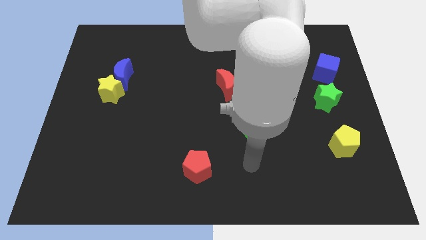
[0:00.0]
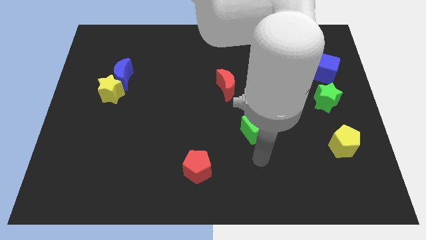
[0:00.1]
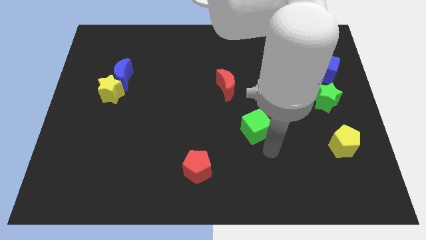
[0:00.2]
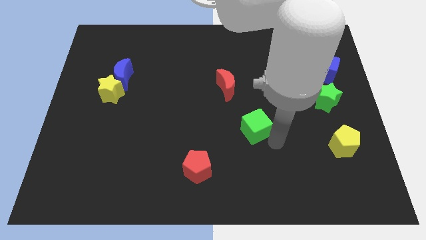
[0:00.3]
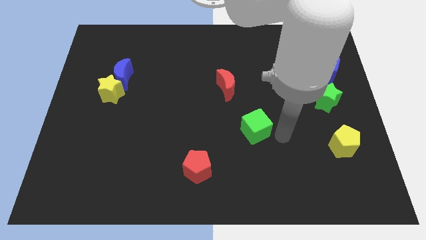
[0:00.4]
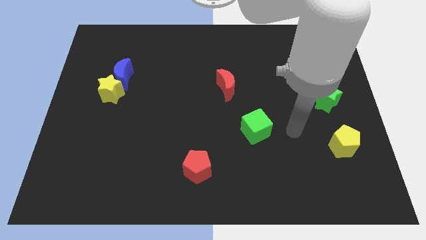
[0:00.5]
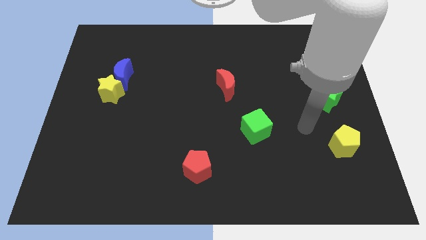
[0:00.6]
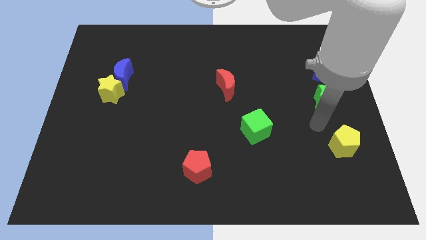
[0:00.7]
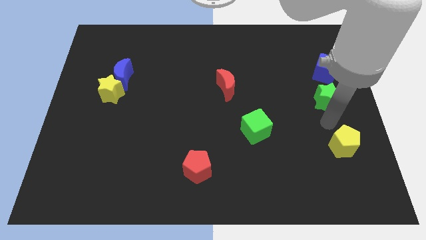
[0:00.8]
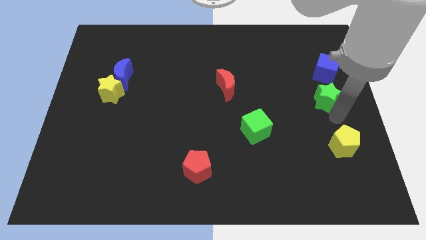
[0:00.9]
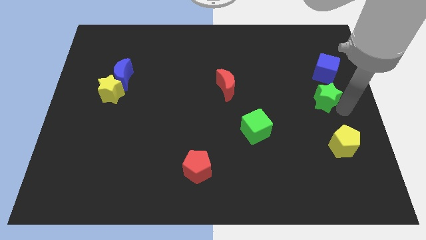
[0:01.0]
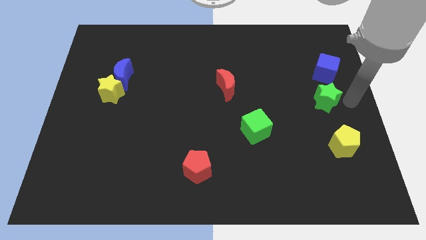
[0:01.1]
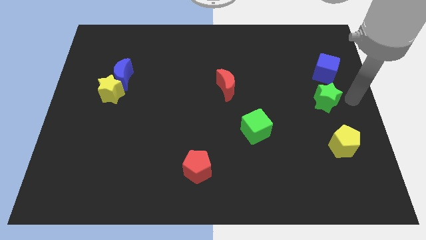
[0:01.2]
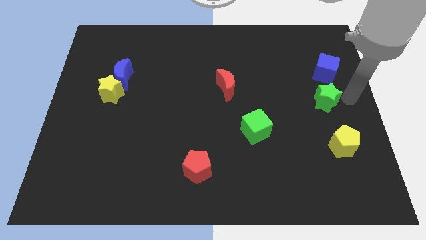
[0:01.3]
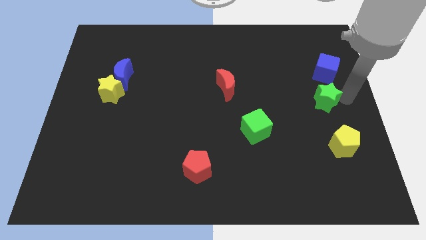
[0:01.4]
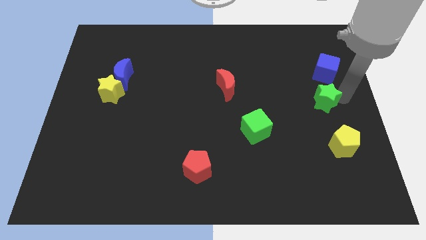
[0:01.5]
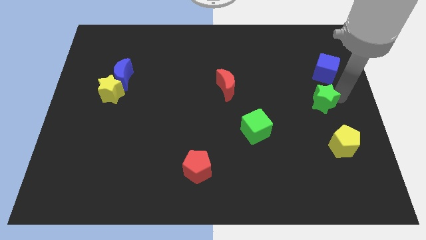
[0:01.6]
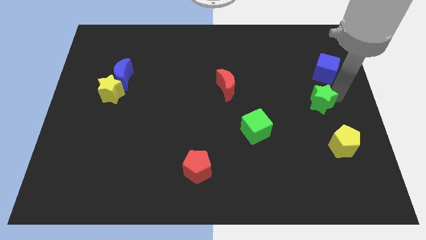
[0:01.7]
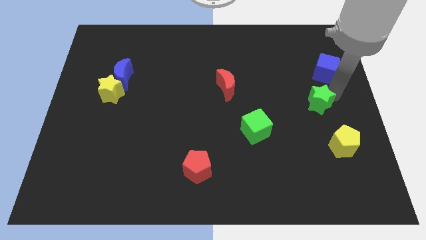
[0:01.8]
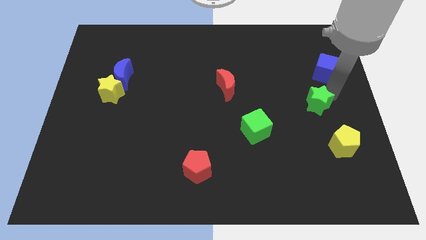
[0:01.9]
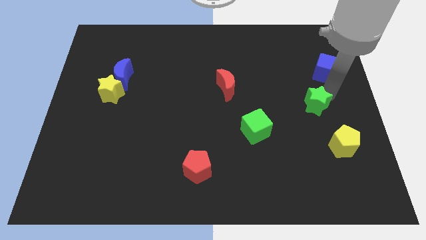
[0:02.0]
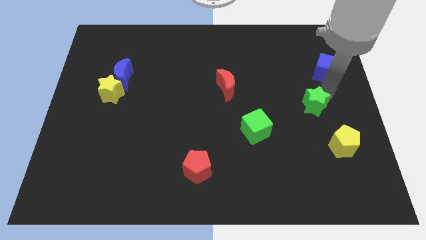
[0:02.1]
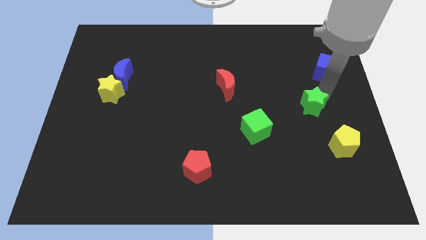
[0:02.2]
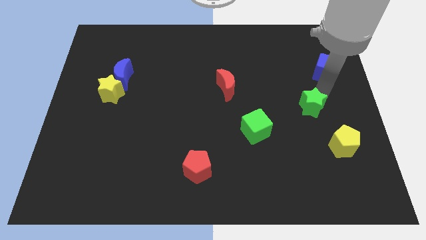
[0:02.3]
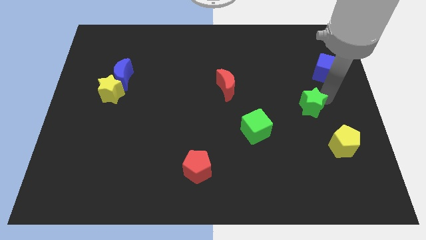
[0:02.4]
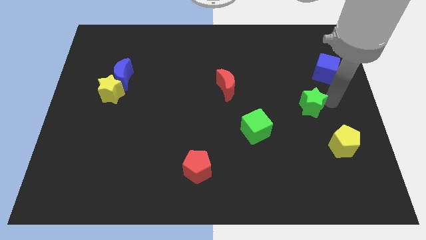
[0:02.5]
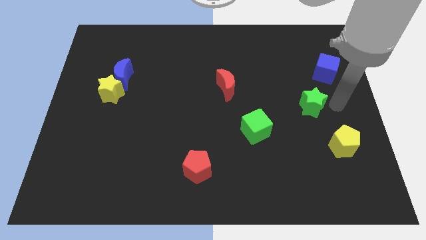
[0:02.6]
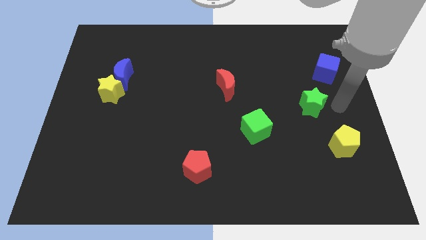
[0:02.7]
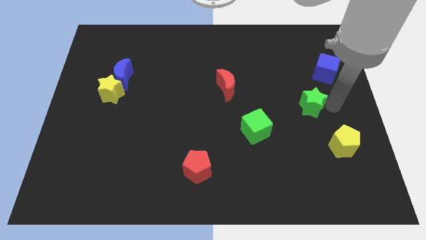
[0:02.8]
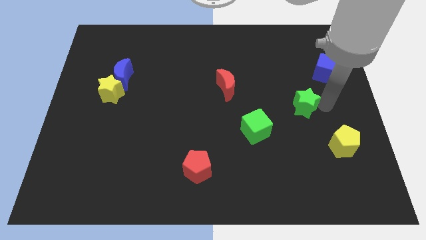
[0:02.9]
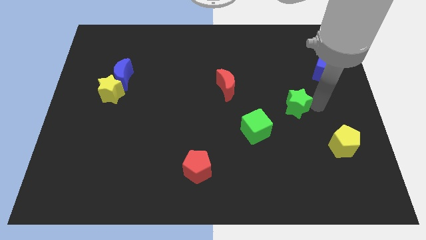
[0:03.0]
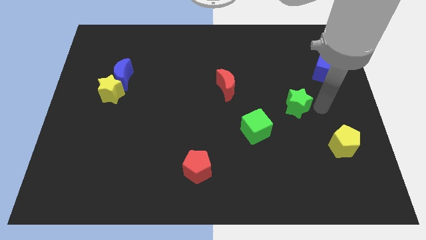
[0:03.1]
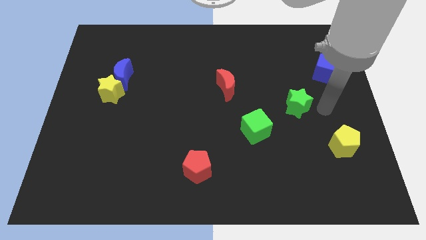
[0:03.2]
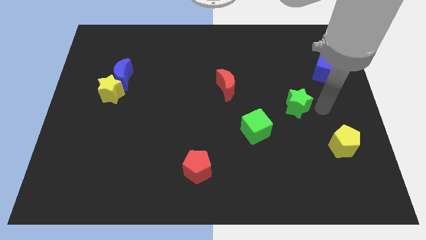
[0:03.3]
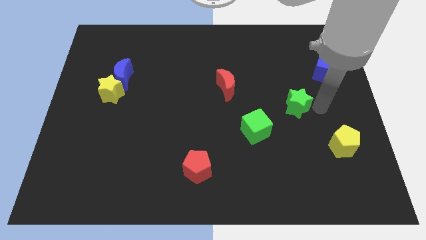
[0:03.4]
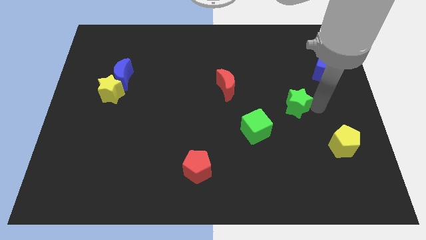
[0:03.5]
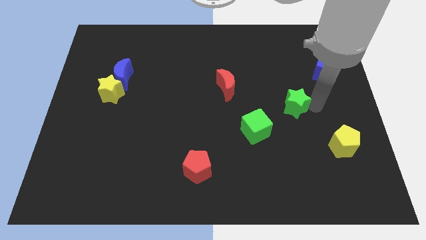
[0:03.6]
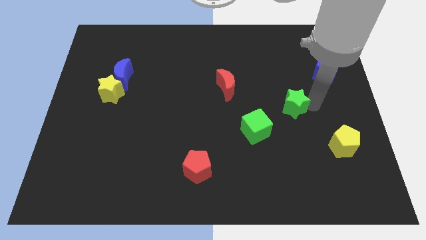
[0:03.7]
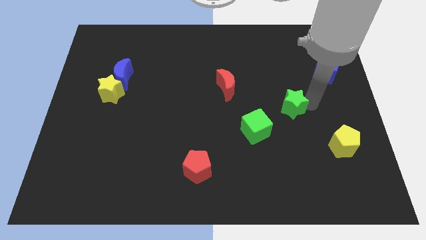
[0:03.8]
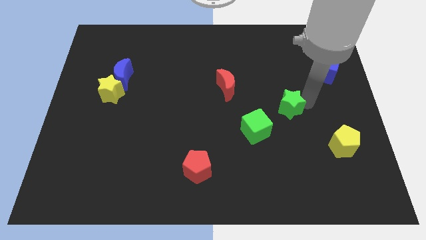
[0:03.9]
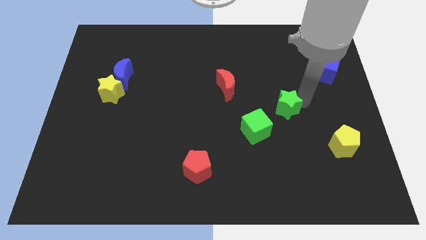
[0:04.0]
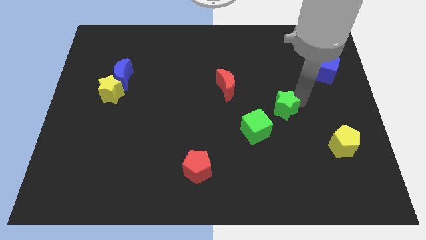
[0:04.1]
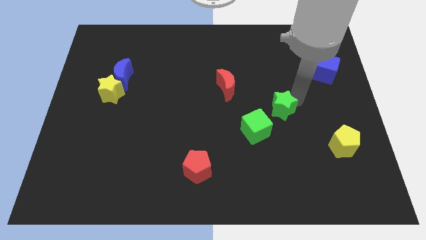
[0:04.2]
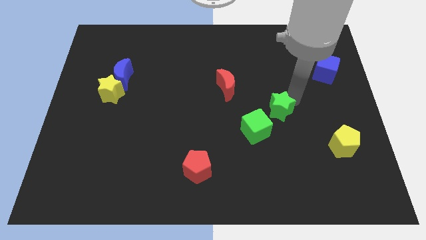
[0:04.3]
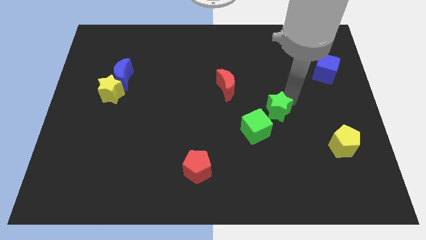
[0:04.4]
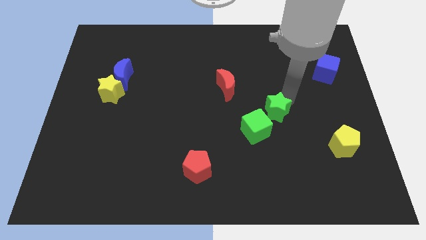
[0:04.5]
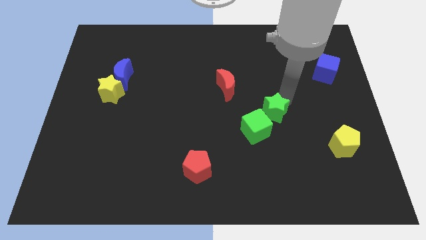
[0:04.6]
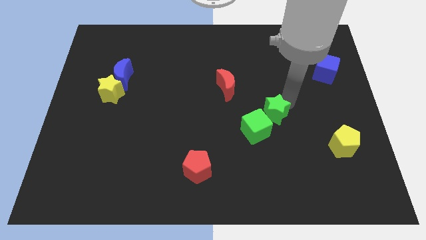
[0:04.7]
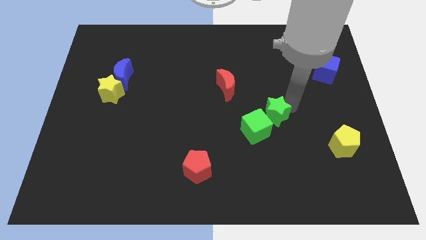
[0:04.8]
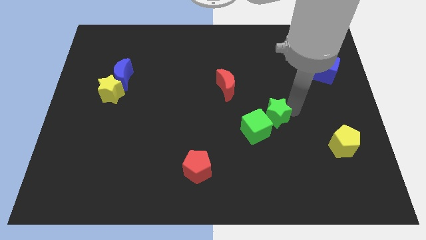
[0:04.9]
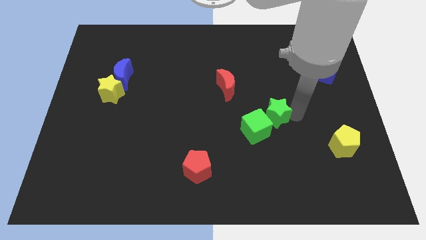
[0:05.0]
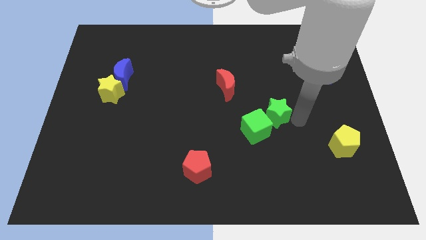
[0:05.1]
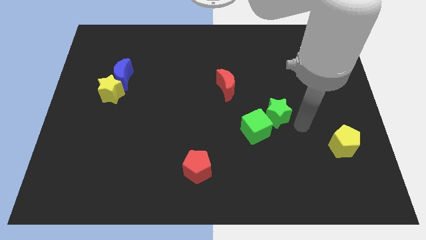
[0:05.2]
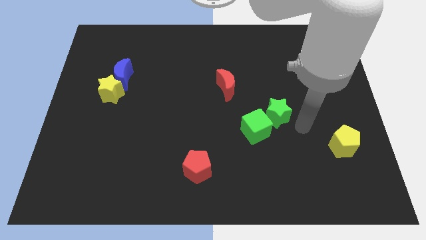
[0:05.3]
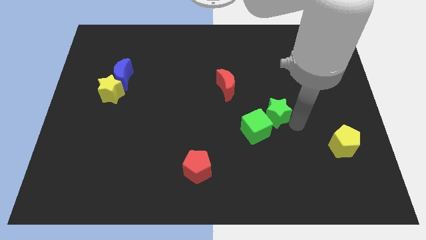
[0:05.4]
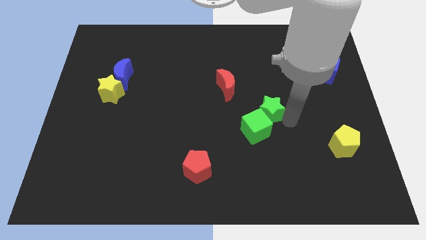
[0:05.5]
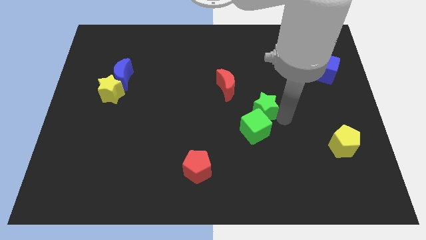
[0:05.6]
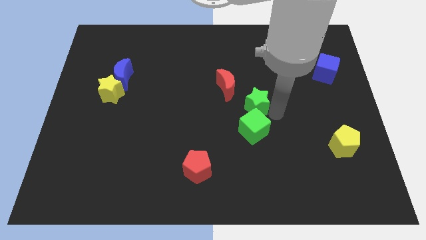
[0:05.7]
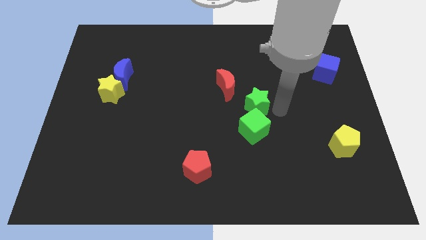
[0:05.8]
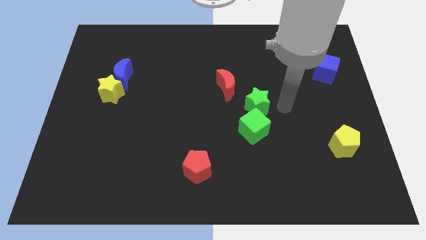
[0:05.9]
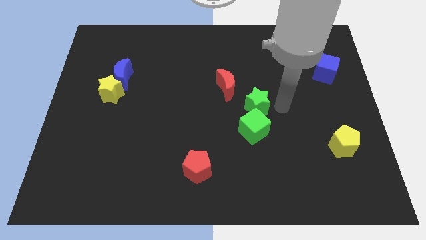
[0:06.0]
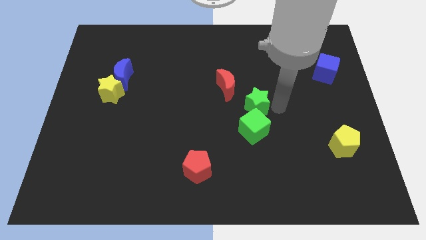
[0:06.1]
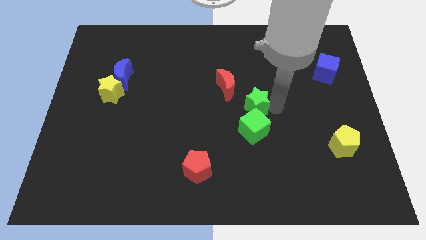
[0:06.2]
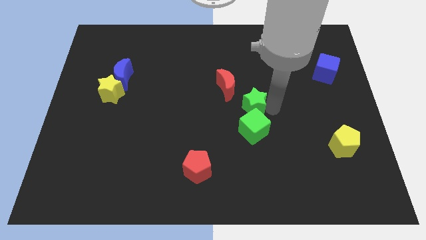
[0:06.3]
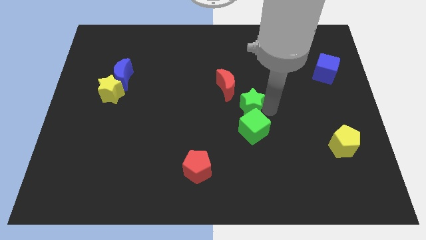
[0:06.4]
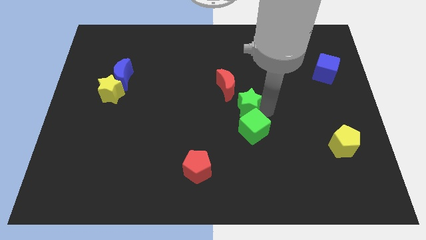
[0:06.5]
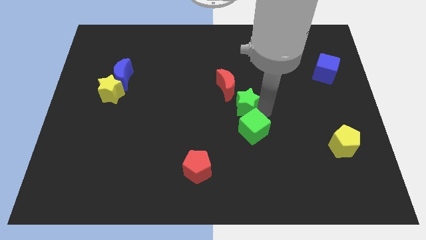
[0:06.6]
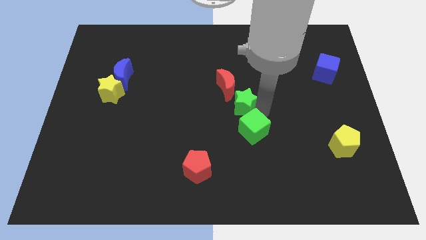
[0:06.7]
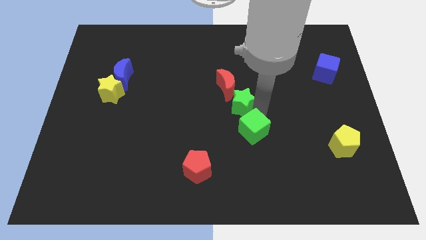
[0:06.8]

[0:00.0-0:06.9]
move the green star to the left

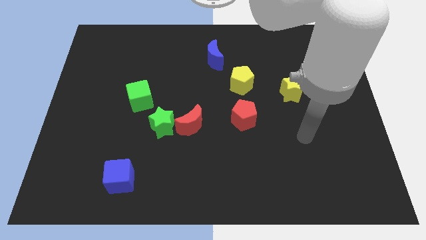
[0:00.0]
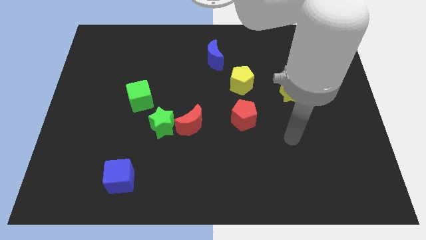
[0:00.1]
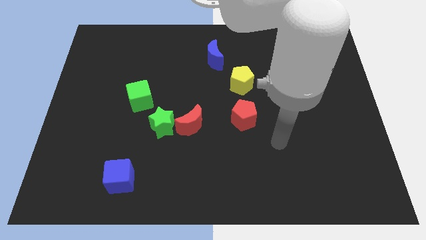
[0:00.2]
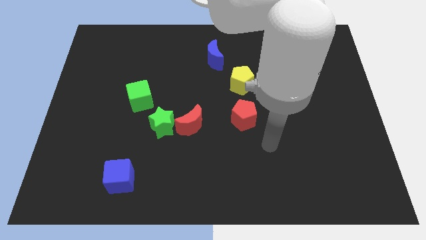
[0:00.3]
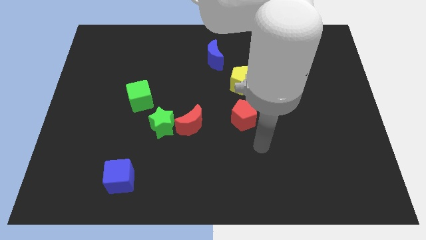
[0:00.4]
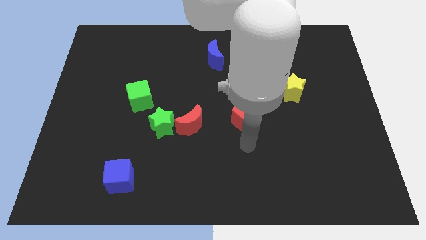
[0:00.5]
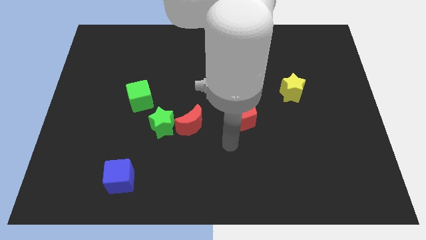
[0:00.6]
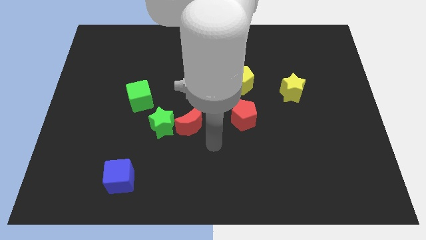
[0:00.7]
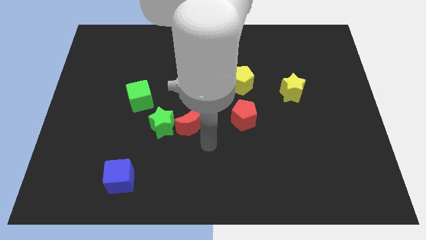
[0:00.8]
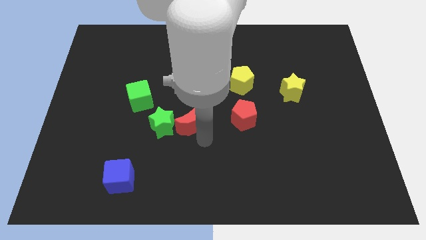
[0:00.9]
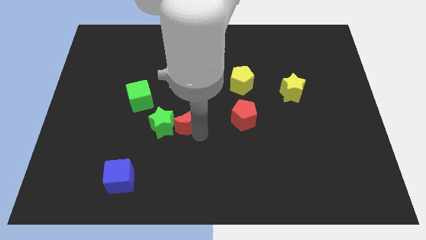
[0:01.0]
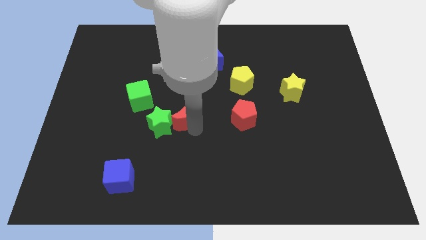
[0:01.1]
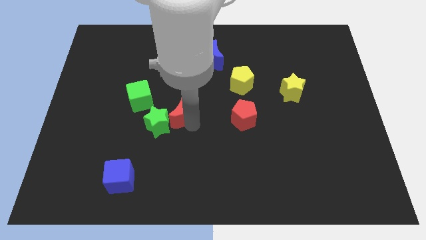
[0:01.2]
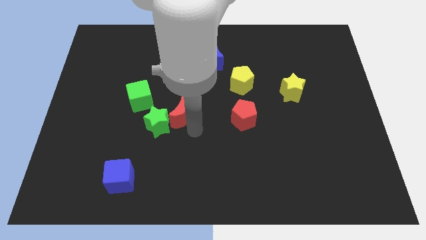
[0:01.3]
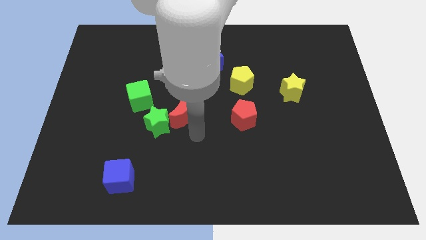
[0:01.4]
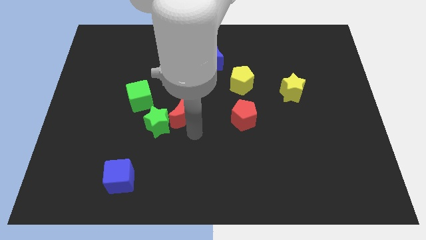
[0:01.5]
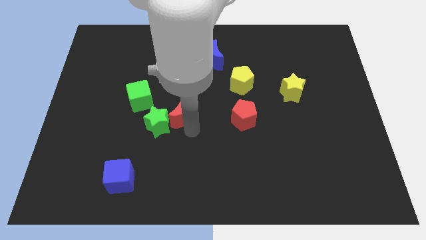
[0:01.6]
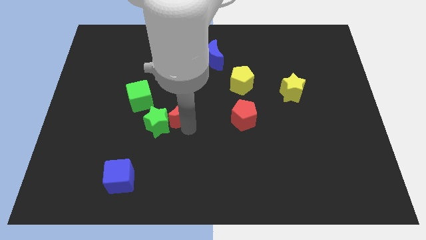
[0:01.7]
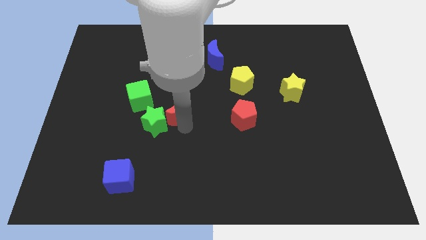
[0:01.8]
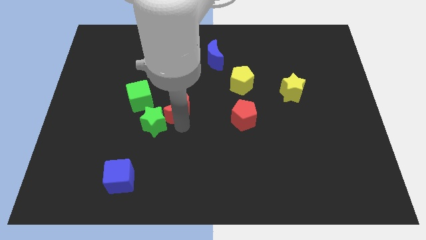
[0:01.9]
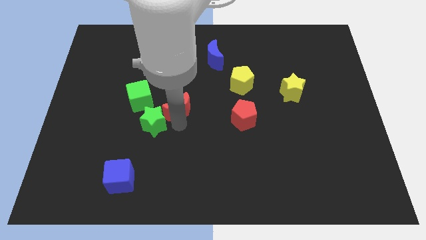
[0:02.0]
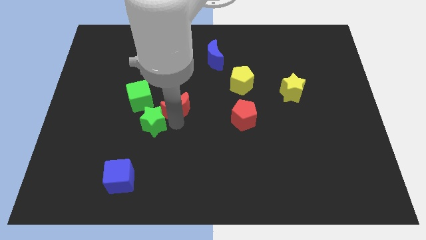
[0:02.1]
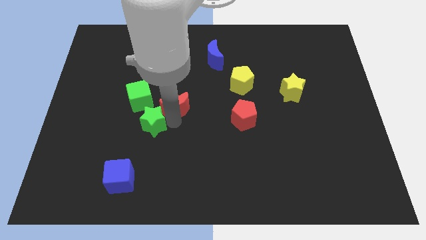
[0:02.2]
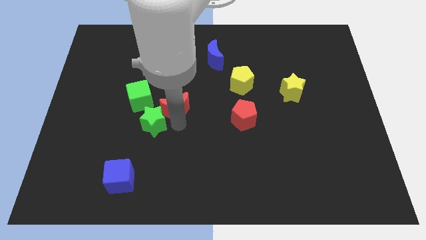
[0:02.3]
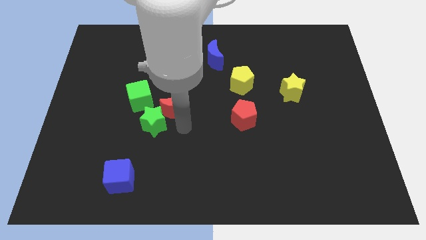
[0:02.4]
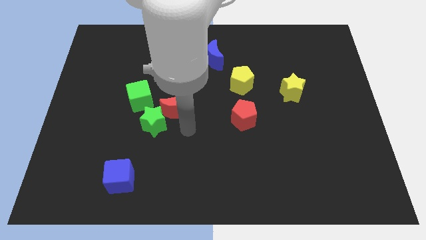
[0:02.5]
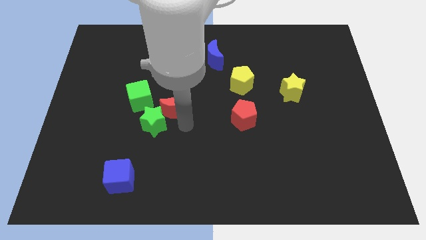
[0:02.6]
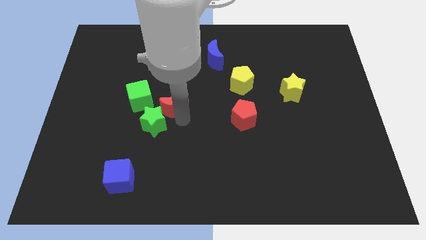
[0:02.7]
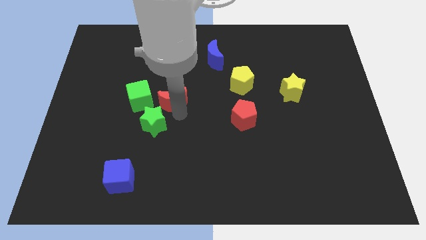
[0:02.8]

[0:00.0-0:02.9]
slide the red moon a little bit up and then left
